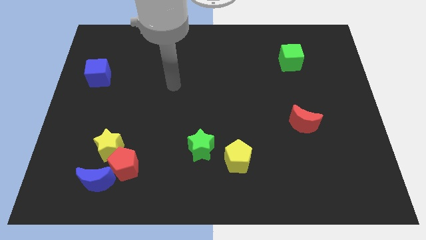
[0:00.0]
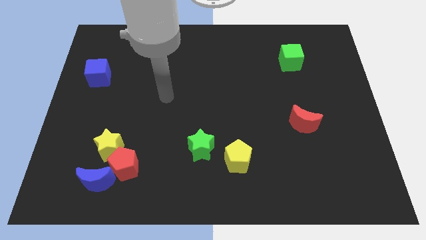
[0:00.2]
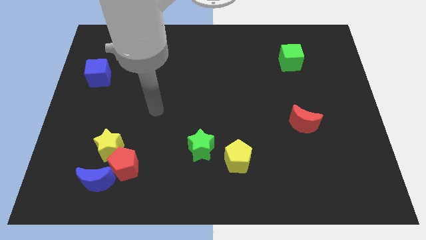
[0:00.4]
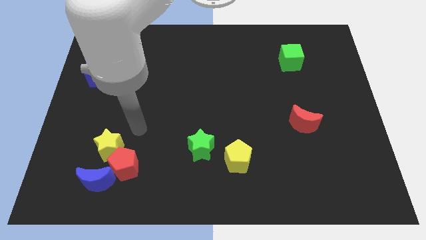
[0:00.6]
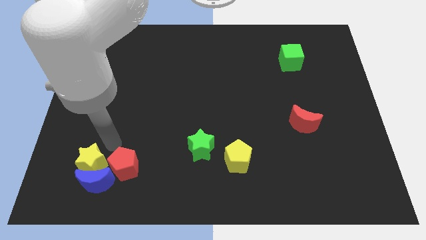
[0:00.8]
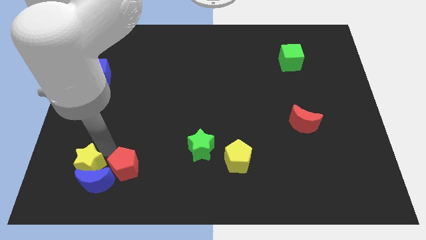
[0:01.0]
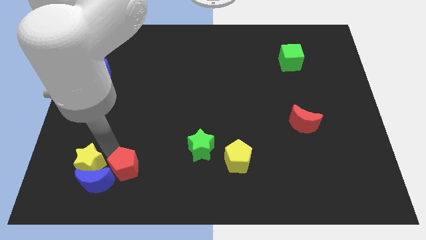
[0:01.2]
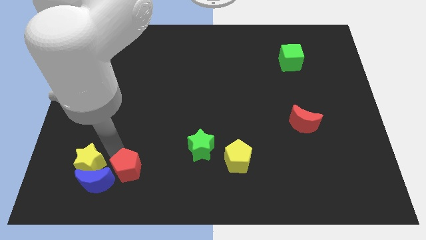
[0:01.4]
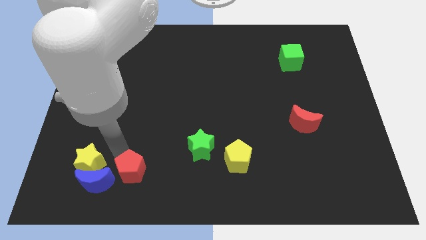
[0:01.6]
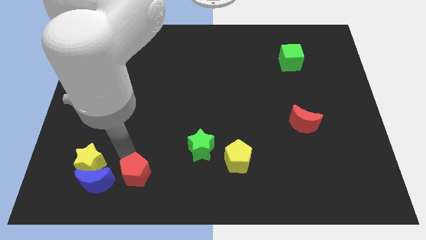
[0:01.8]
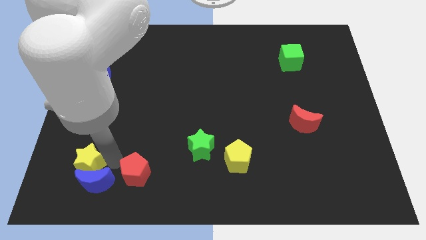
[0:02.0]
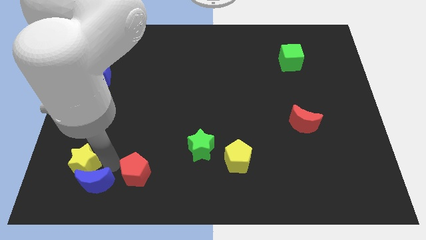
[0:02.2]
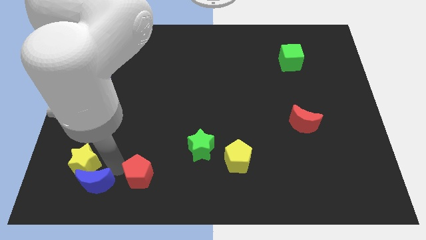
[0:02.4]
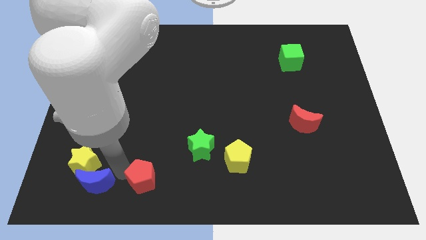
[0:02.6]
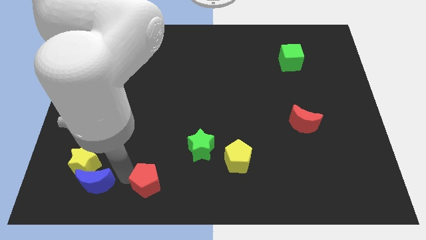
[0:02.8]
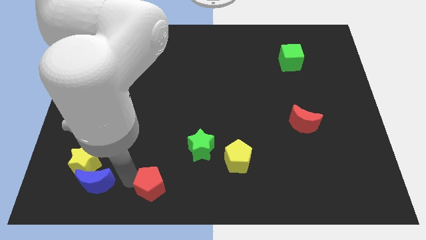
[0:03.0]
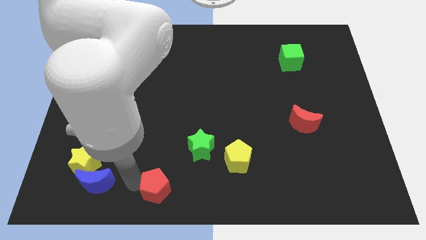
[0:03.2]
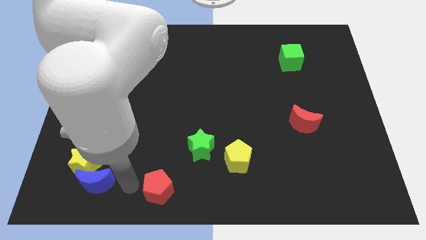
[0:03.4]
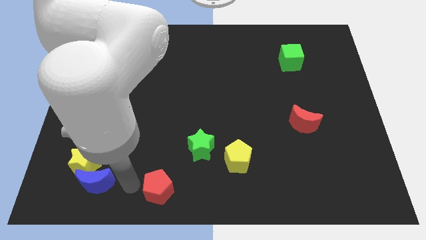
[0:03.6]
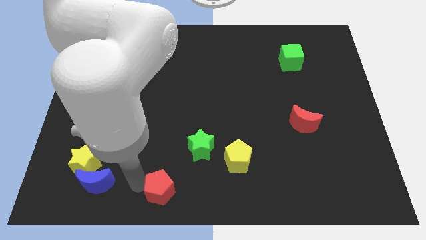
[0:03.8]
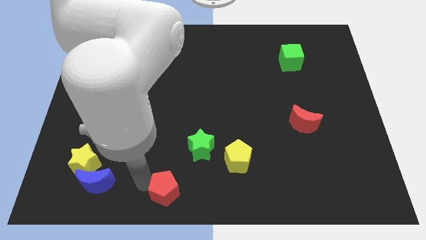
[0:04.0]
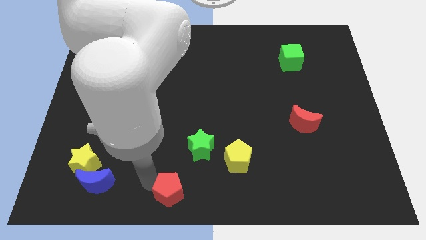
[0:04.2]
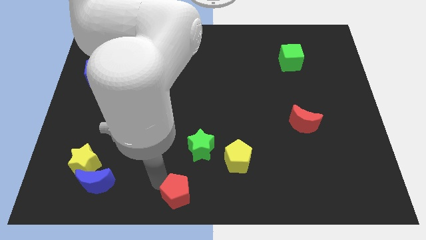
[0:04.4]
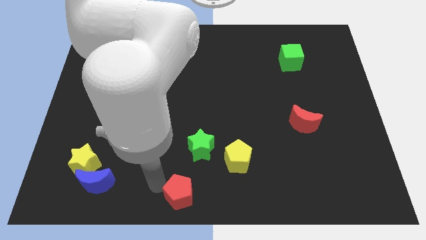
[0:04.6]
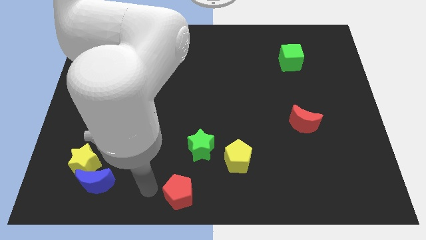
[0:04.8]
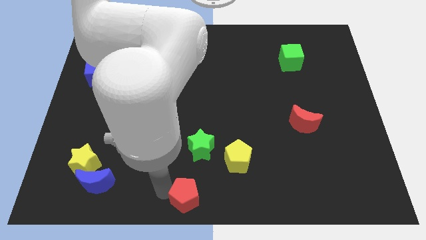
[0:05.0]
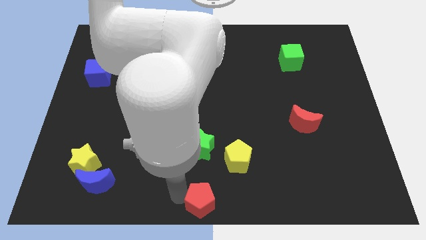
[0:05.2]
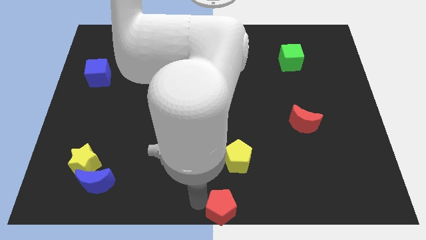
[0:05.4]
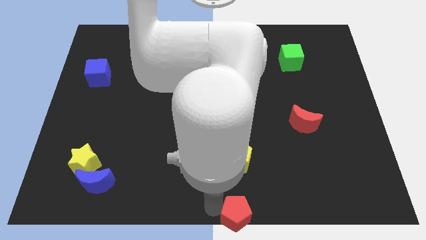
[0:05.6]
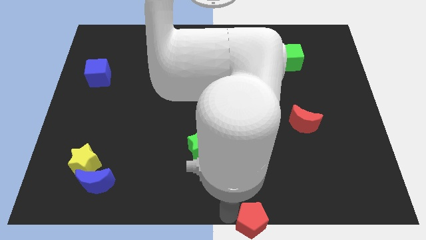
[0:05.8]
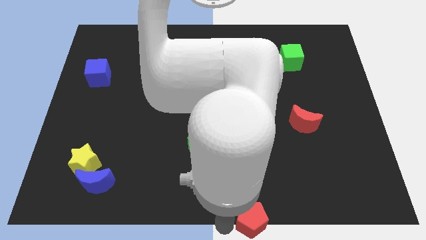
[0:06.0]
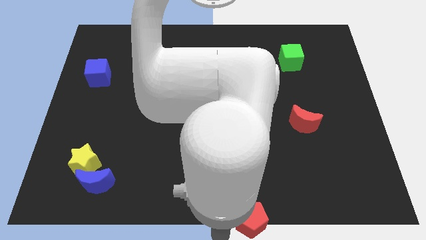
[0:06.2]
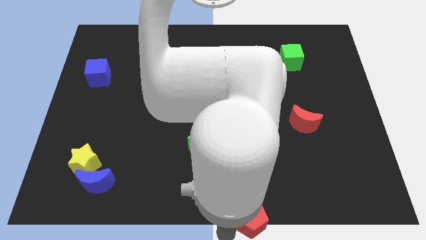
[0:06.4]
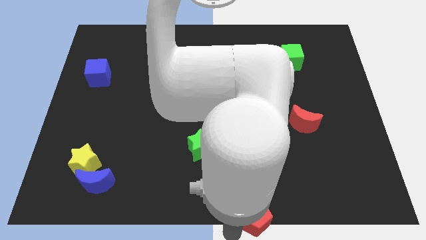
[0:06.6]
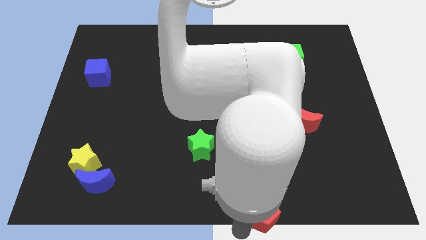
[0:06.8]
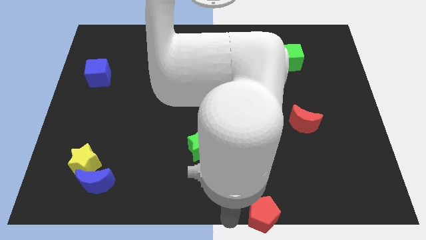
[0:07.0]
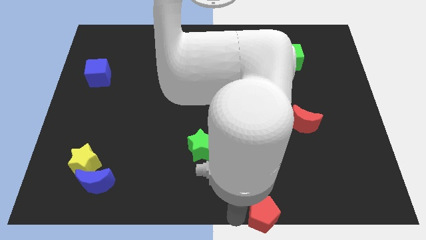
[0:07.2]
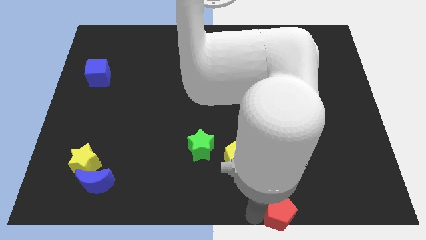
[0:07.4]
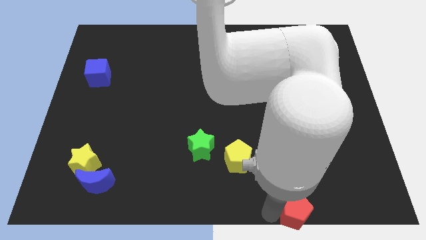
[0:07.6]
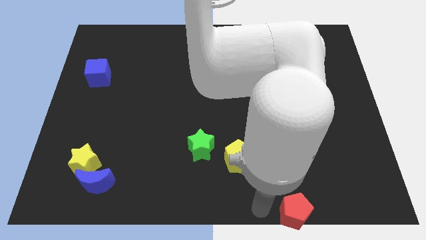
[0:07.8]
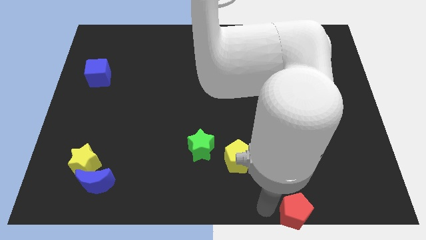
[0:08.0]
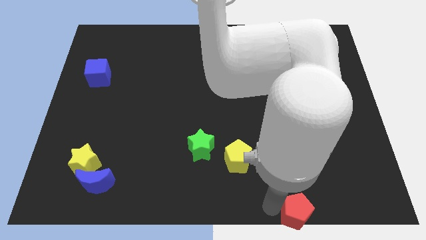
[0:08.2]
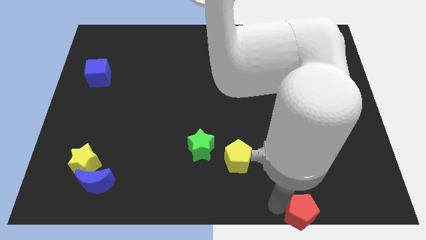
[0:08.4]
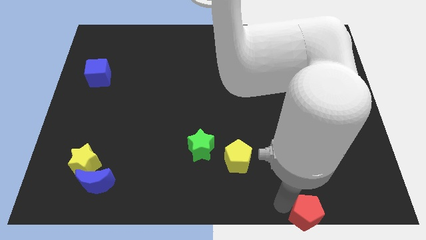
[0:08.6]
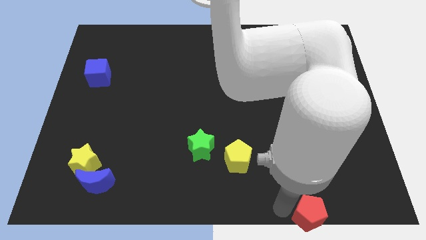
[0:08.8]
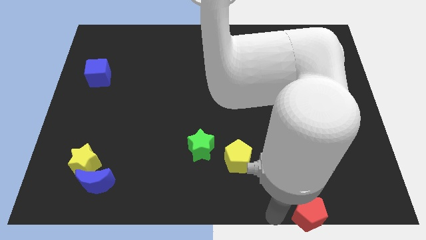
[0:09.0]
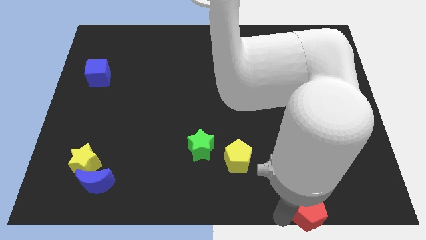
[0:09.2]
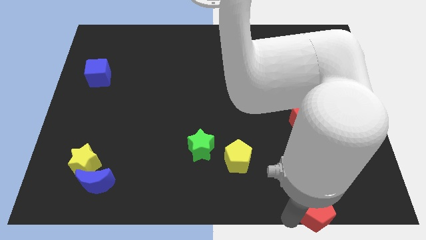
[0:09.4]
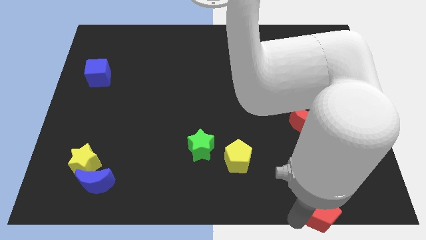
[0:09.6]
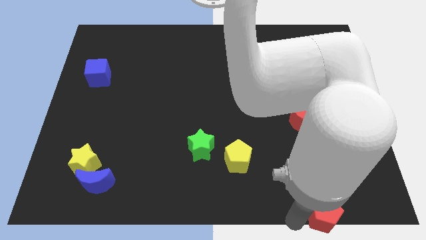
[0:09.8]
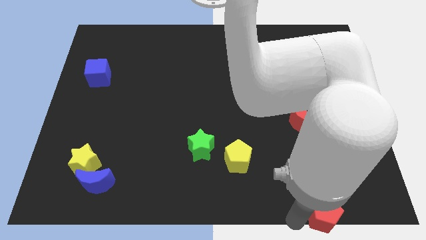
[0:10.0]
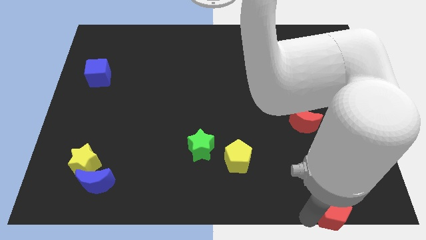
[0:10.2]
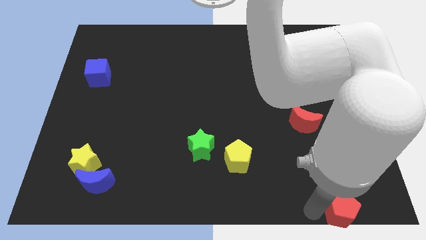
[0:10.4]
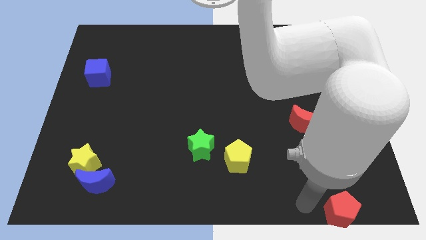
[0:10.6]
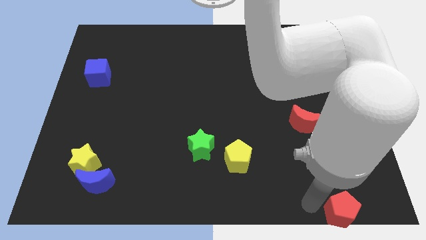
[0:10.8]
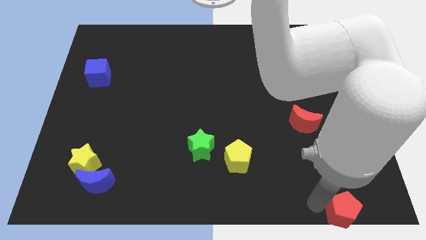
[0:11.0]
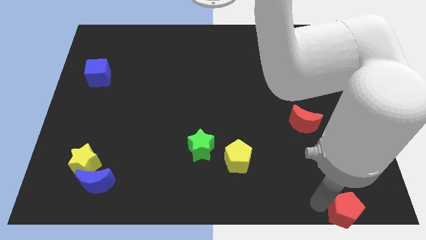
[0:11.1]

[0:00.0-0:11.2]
put the red pentagon to the bottom right corner

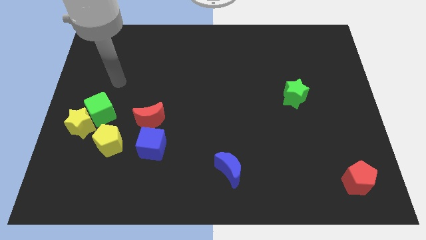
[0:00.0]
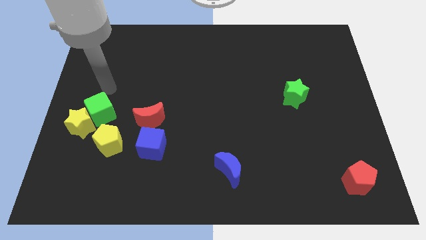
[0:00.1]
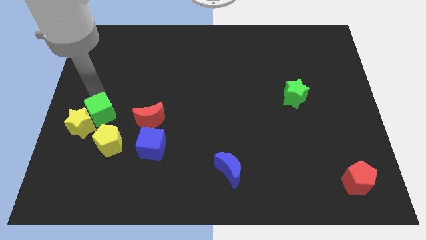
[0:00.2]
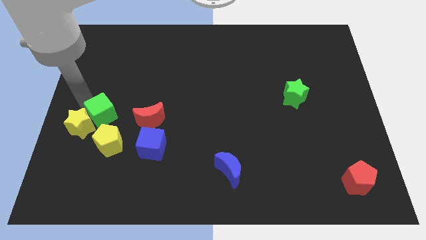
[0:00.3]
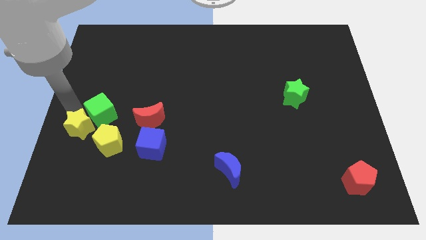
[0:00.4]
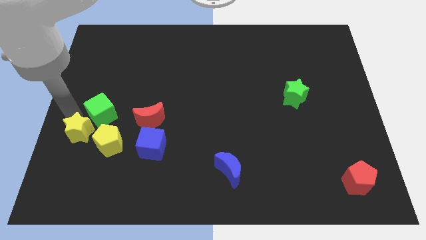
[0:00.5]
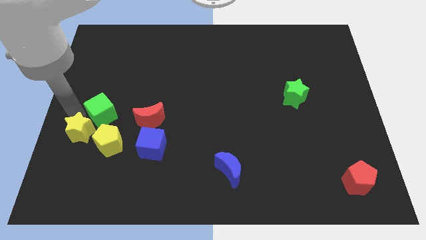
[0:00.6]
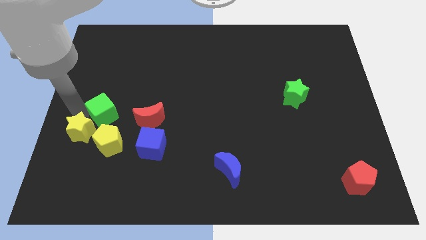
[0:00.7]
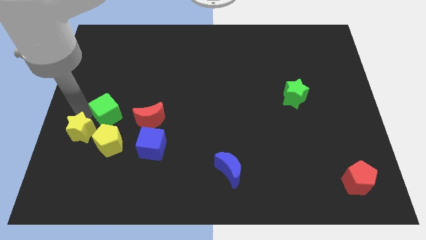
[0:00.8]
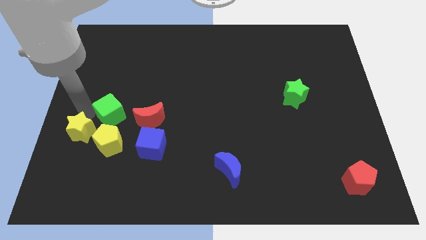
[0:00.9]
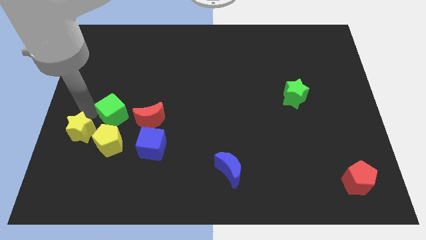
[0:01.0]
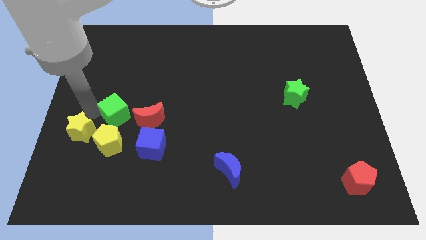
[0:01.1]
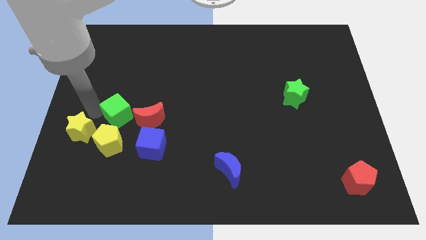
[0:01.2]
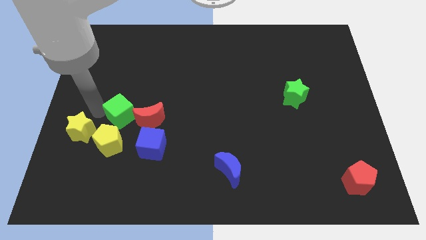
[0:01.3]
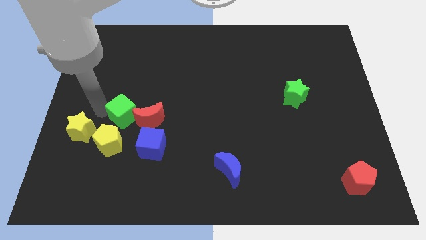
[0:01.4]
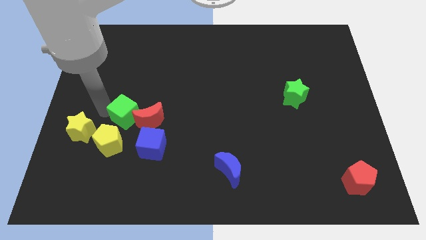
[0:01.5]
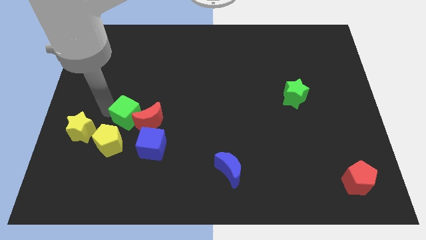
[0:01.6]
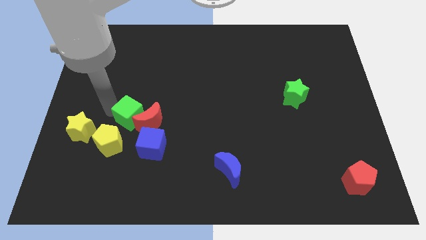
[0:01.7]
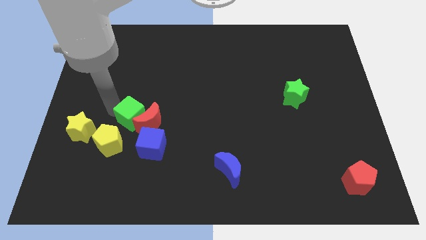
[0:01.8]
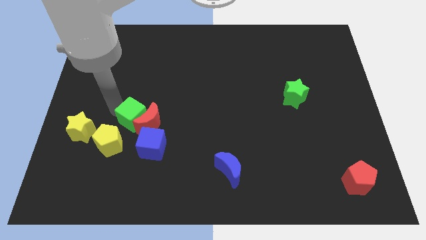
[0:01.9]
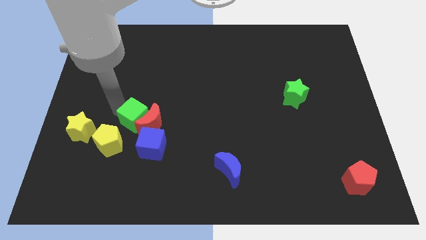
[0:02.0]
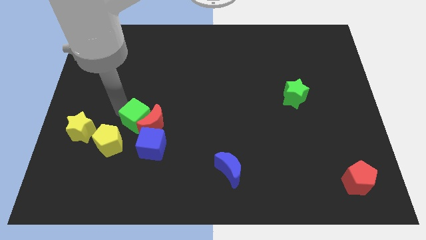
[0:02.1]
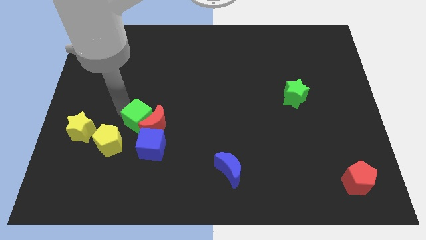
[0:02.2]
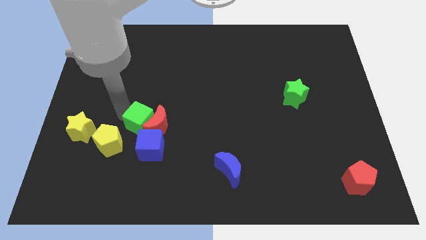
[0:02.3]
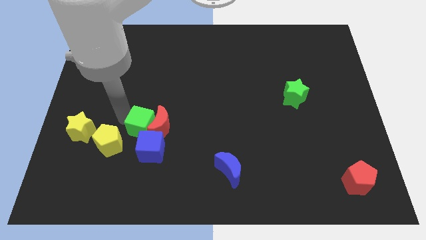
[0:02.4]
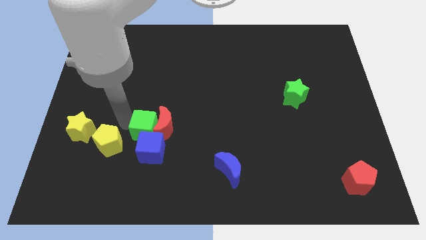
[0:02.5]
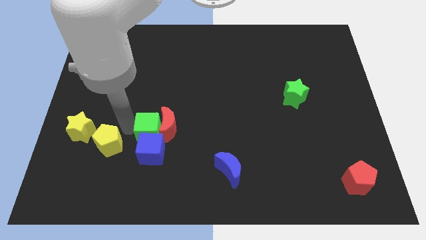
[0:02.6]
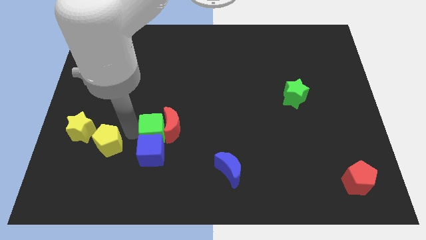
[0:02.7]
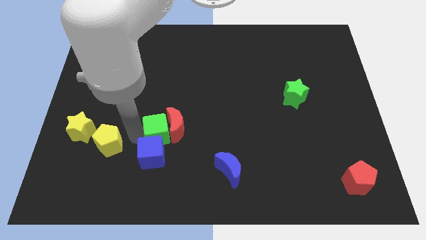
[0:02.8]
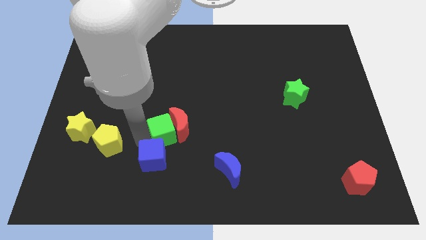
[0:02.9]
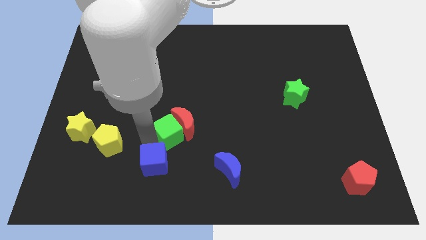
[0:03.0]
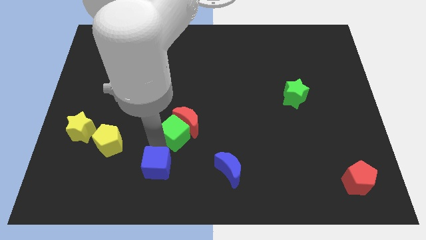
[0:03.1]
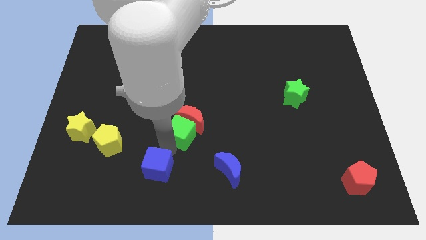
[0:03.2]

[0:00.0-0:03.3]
push the green cube to the middle of the board
